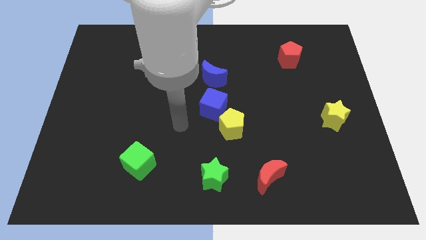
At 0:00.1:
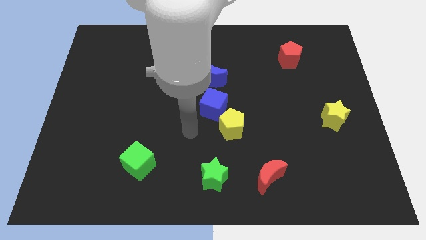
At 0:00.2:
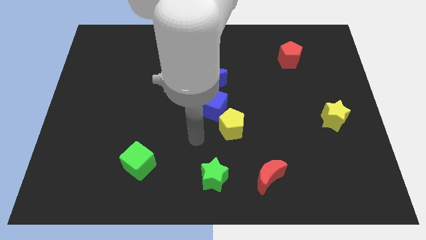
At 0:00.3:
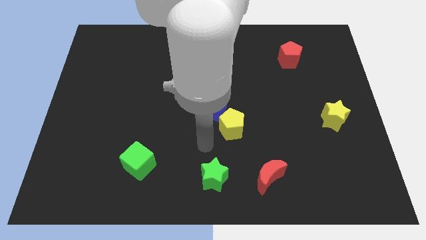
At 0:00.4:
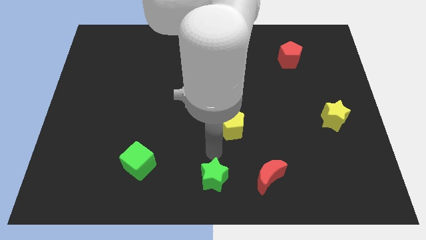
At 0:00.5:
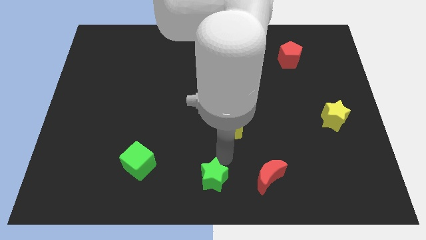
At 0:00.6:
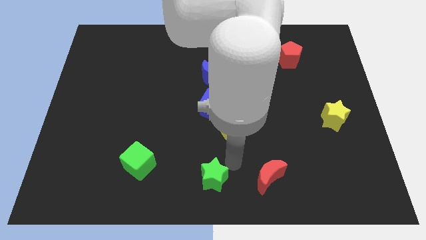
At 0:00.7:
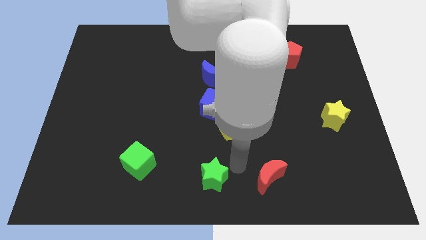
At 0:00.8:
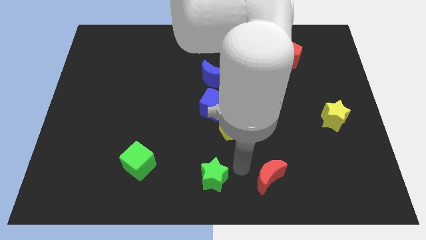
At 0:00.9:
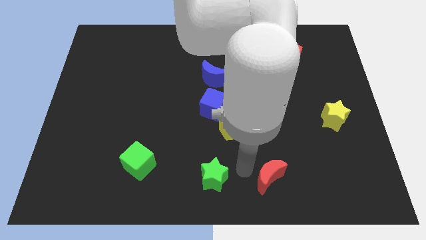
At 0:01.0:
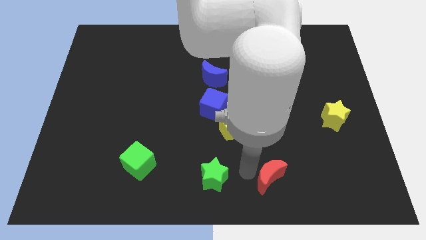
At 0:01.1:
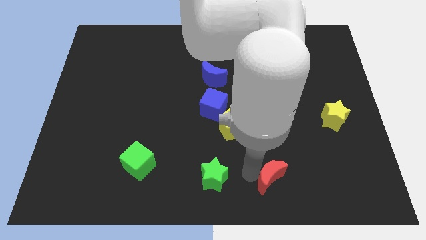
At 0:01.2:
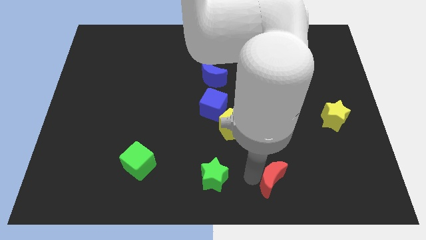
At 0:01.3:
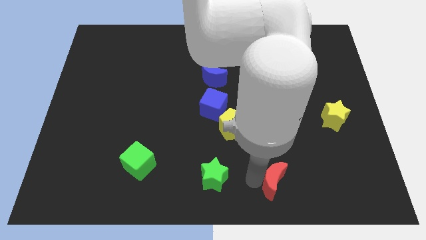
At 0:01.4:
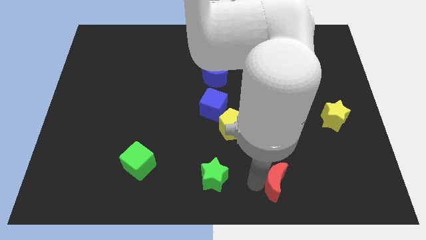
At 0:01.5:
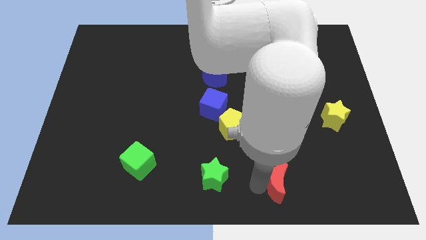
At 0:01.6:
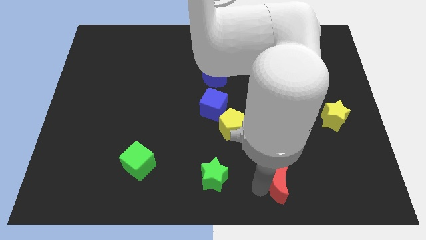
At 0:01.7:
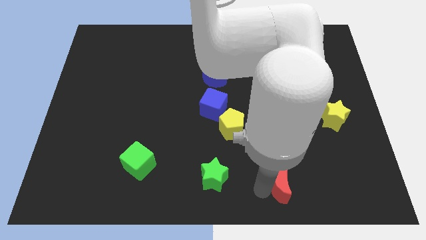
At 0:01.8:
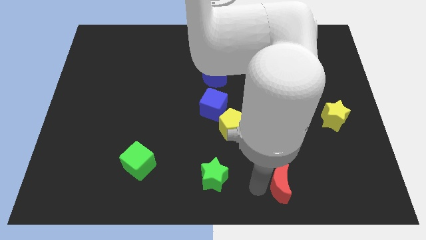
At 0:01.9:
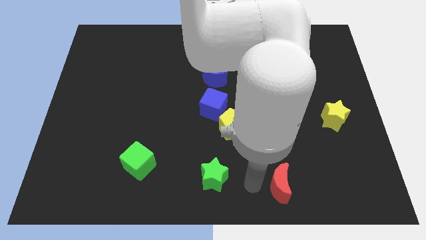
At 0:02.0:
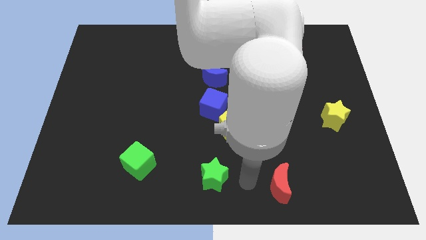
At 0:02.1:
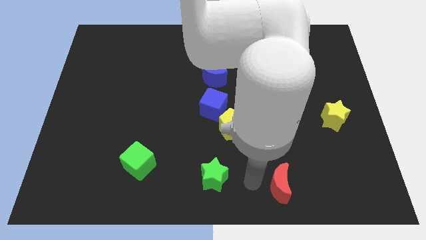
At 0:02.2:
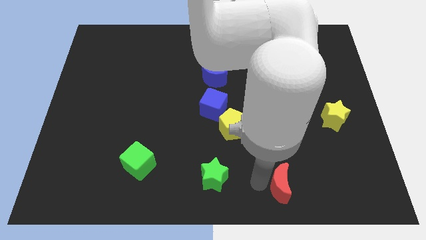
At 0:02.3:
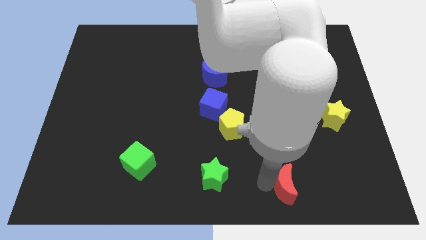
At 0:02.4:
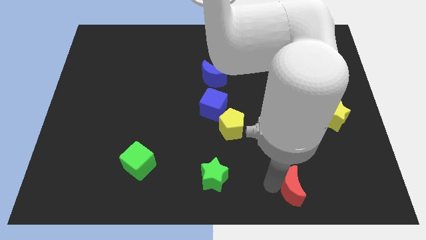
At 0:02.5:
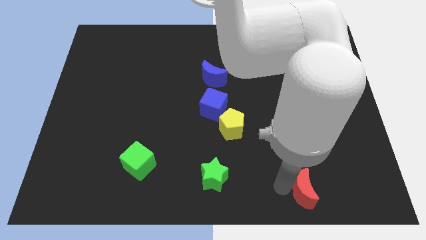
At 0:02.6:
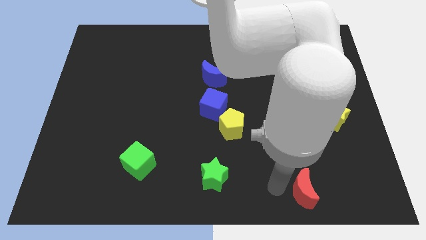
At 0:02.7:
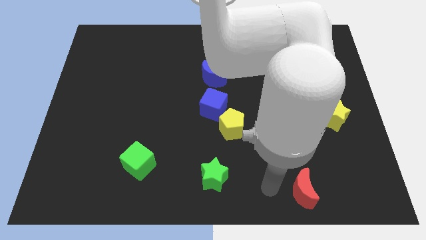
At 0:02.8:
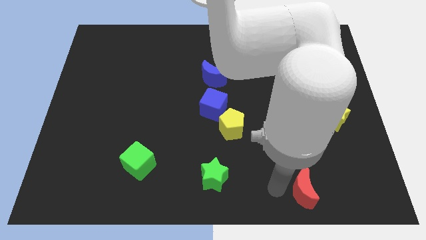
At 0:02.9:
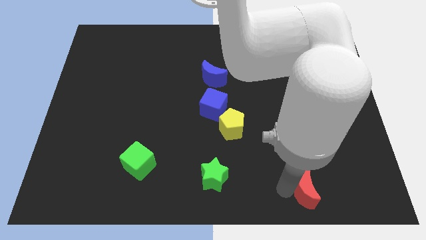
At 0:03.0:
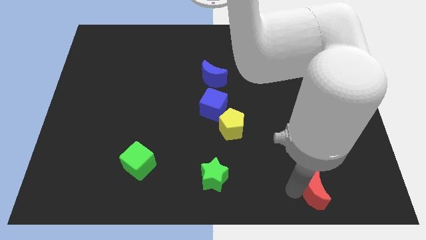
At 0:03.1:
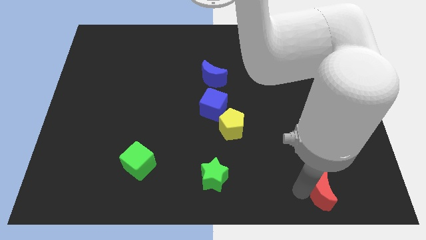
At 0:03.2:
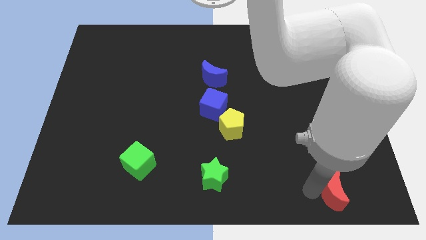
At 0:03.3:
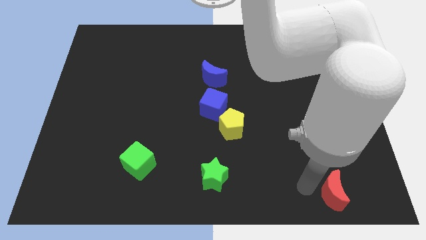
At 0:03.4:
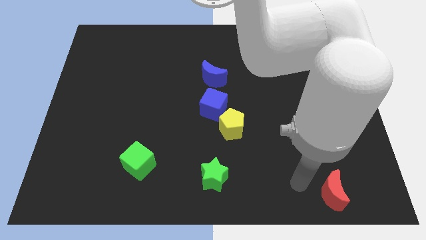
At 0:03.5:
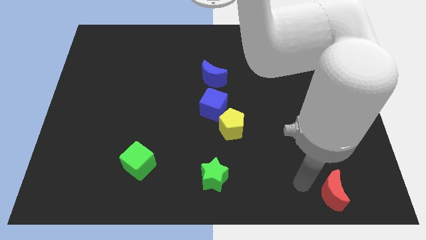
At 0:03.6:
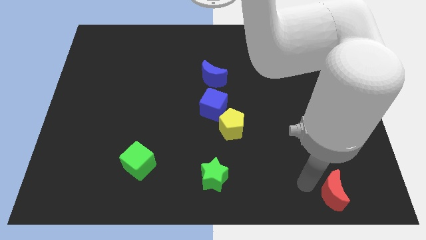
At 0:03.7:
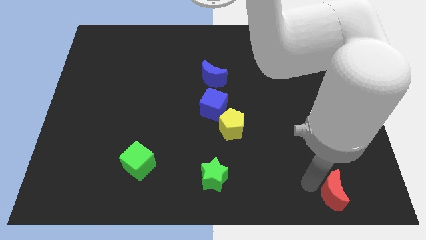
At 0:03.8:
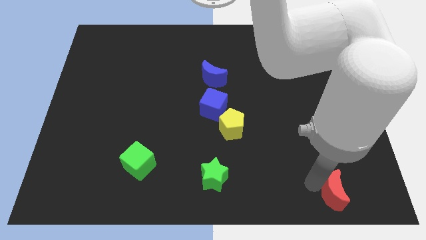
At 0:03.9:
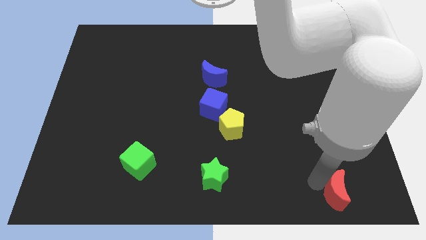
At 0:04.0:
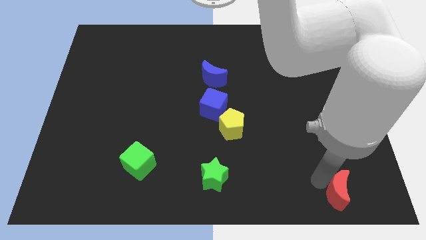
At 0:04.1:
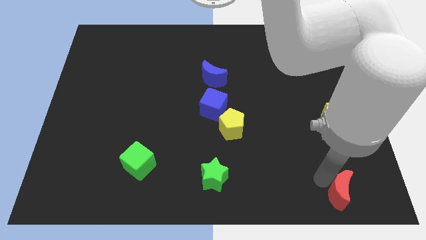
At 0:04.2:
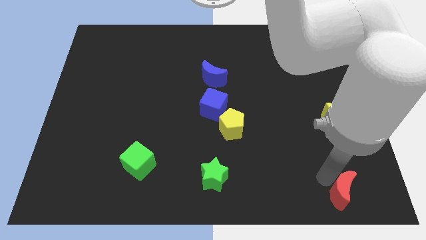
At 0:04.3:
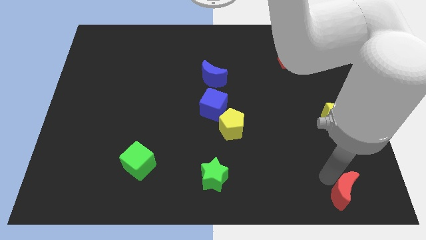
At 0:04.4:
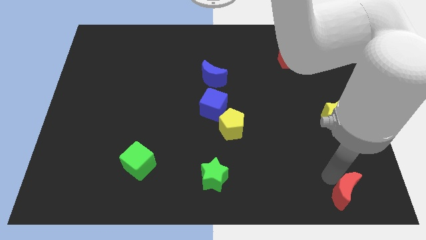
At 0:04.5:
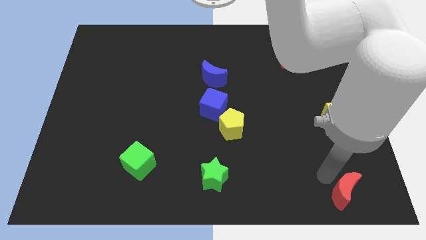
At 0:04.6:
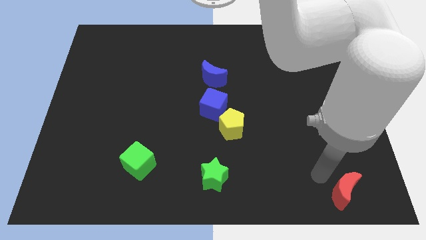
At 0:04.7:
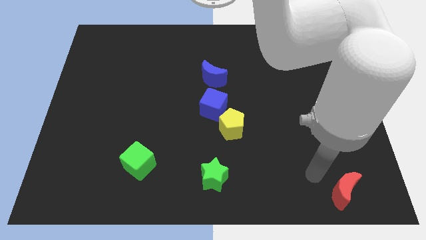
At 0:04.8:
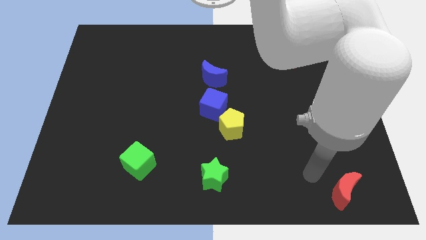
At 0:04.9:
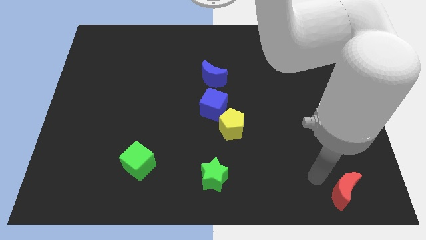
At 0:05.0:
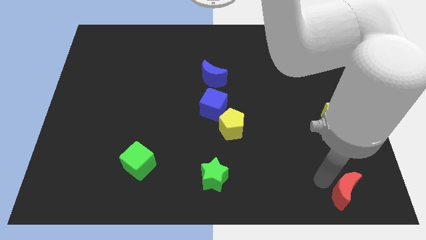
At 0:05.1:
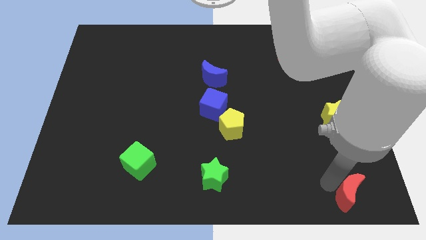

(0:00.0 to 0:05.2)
slide the red moon to the lower right corner

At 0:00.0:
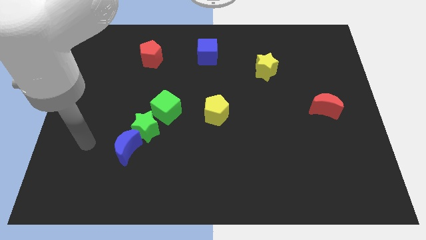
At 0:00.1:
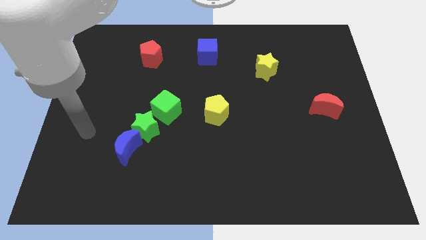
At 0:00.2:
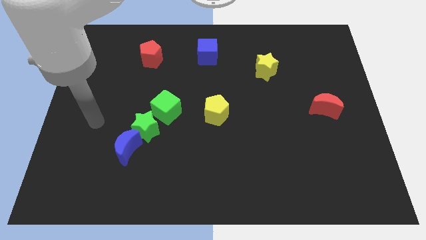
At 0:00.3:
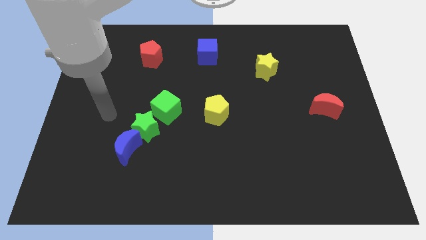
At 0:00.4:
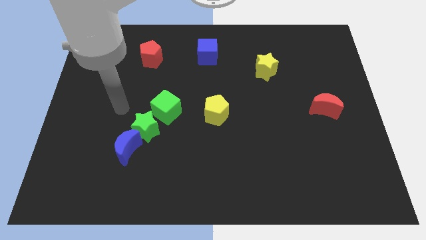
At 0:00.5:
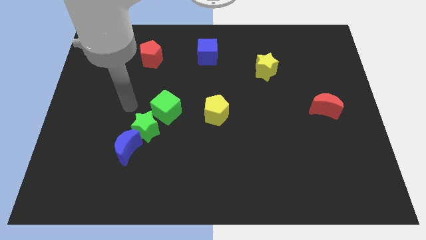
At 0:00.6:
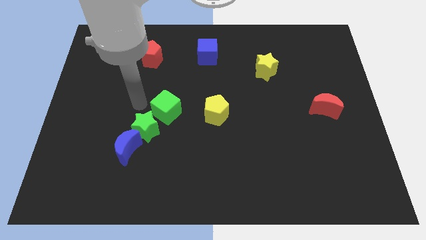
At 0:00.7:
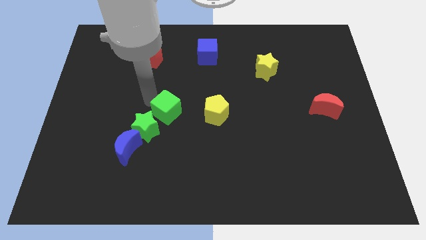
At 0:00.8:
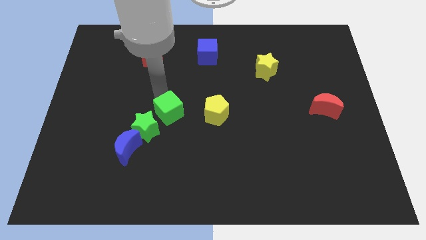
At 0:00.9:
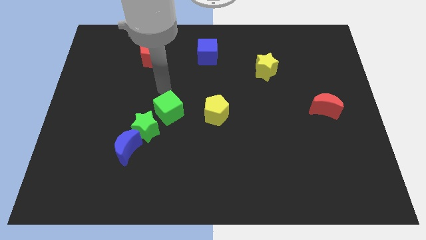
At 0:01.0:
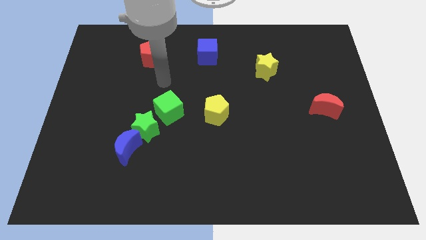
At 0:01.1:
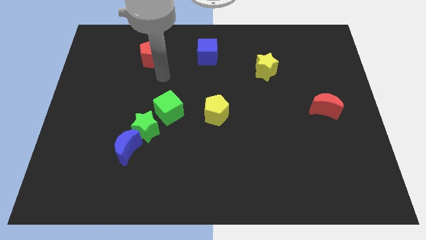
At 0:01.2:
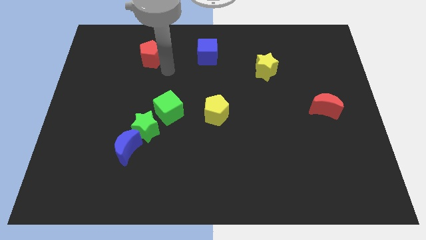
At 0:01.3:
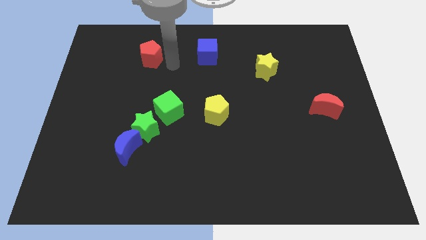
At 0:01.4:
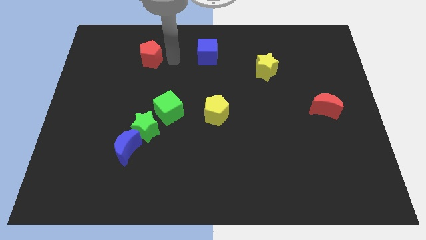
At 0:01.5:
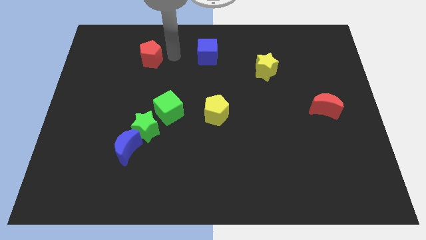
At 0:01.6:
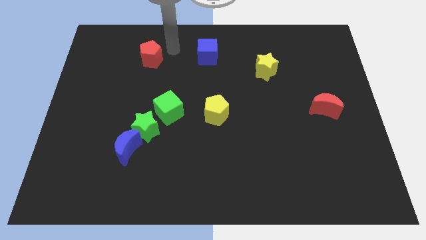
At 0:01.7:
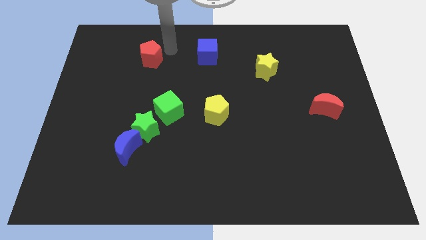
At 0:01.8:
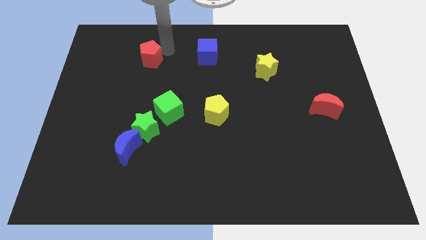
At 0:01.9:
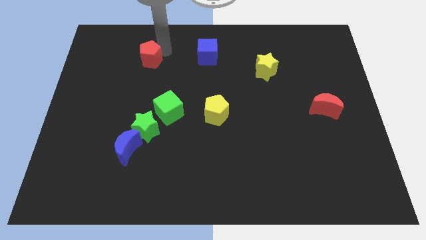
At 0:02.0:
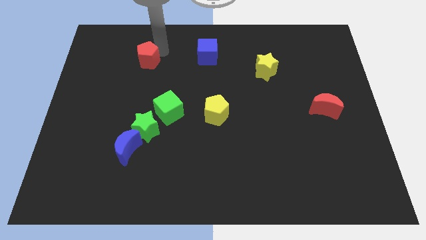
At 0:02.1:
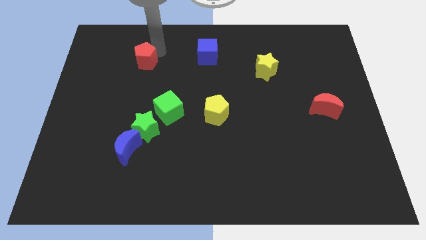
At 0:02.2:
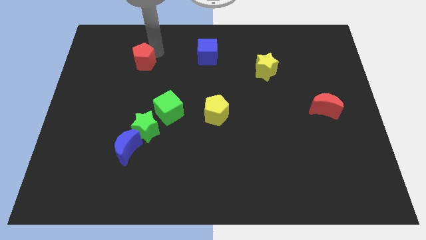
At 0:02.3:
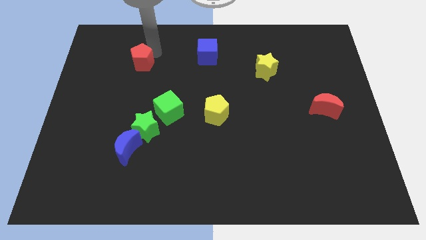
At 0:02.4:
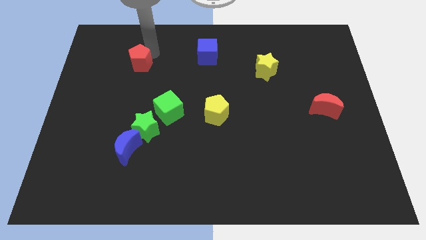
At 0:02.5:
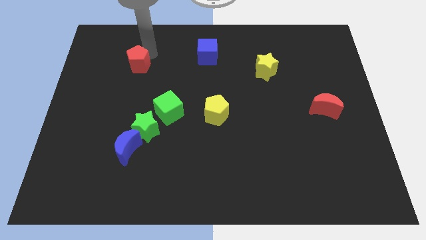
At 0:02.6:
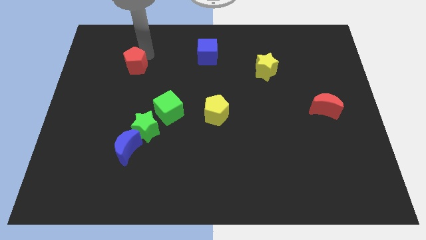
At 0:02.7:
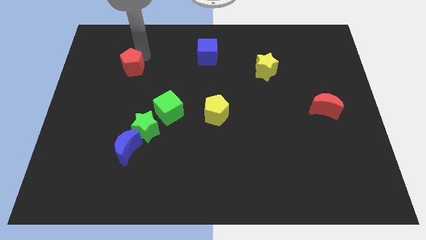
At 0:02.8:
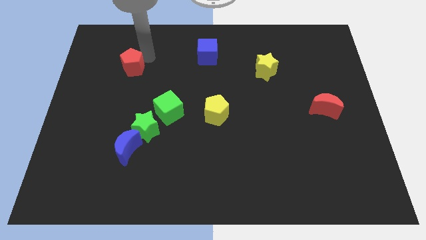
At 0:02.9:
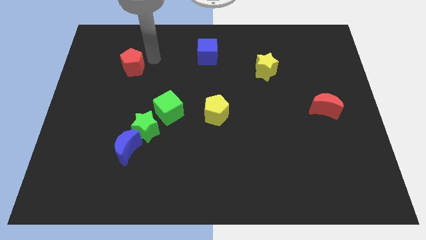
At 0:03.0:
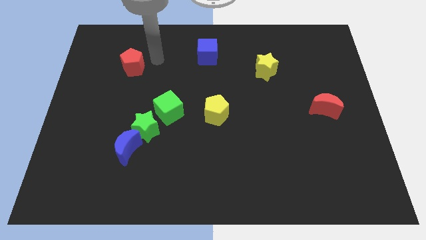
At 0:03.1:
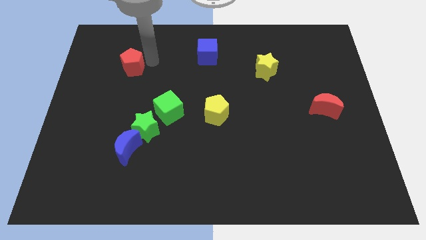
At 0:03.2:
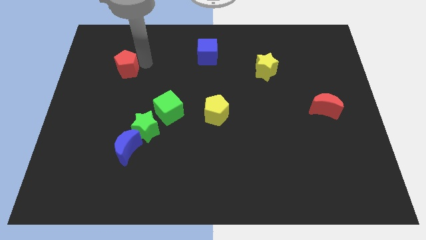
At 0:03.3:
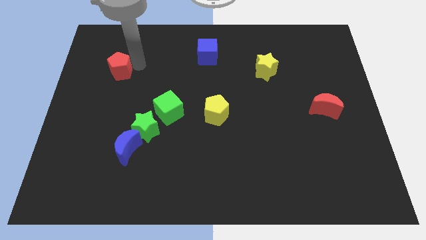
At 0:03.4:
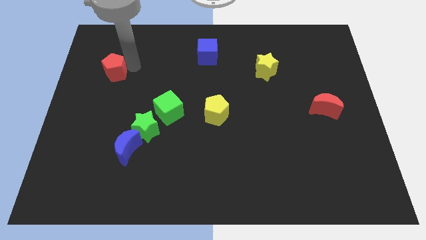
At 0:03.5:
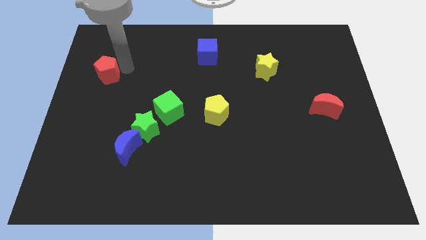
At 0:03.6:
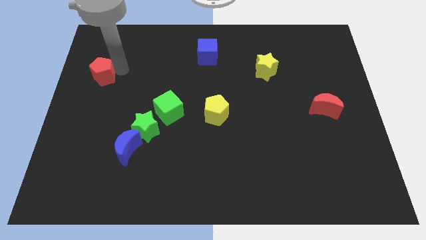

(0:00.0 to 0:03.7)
slide the red pentagon to the center left
